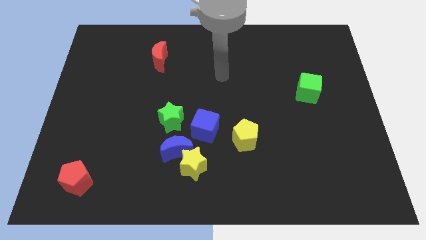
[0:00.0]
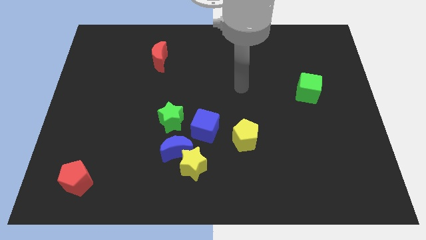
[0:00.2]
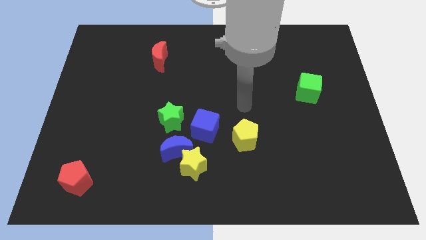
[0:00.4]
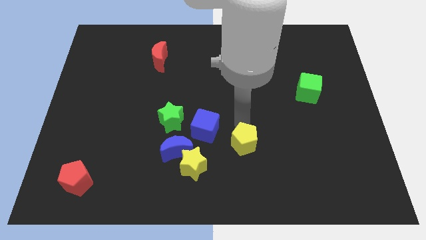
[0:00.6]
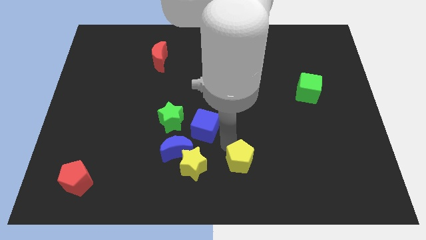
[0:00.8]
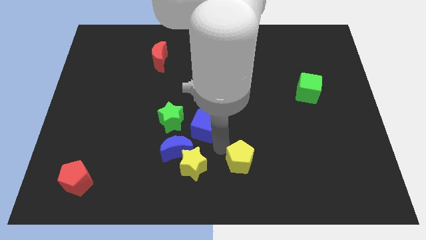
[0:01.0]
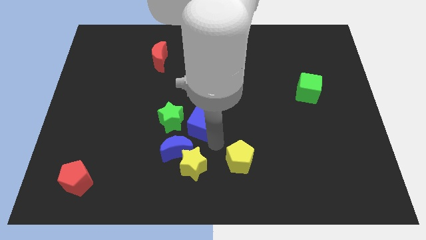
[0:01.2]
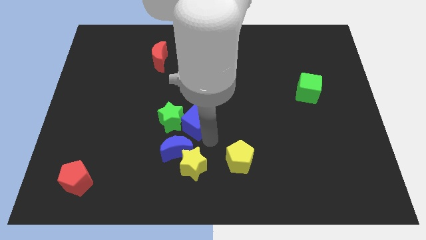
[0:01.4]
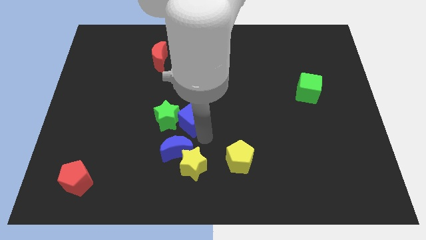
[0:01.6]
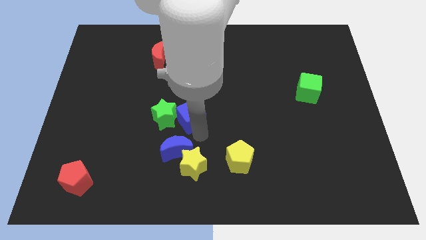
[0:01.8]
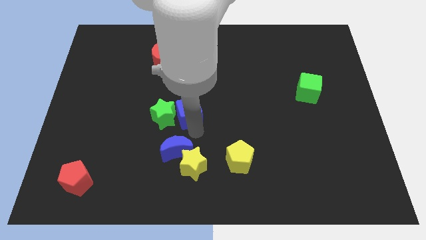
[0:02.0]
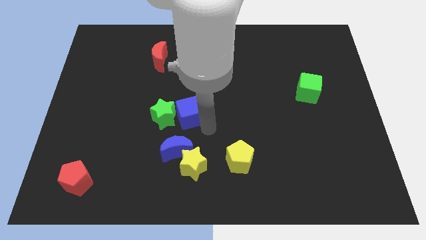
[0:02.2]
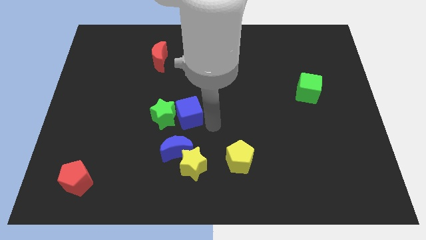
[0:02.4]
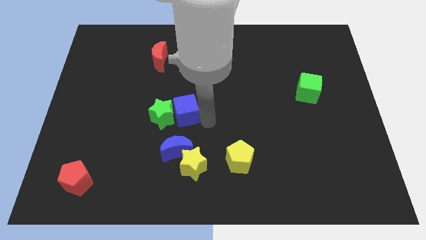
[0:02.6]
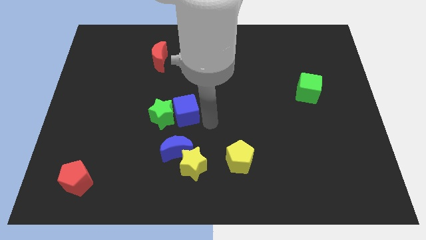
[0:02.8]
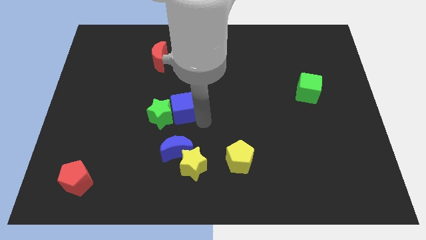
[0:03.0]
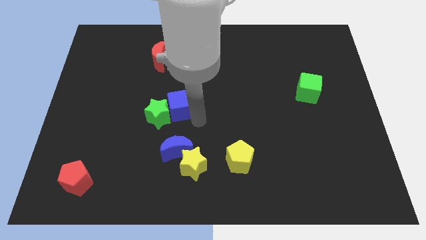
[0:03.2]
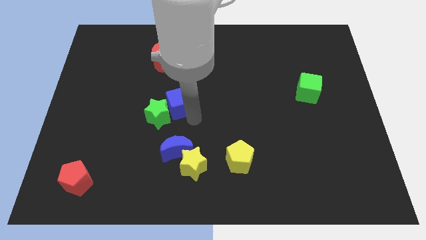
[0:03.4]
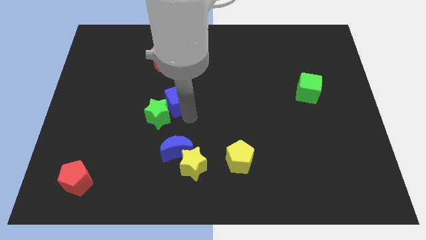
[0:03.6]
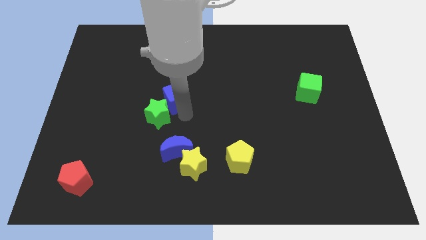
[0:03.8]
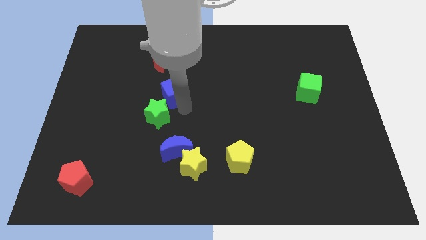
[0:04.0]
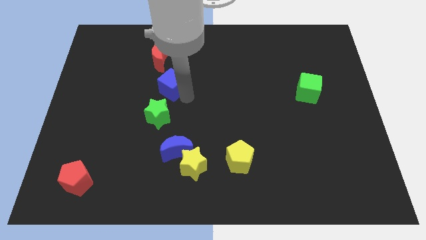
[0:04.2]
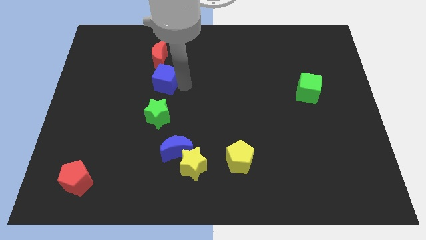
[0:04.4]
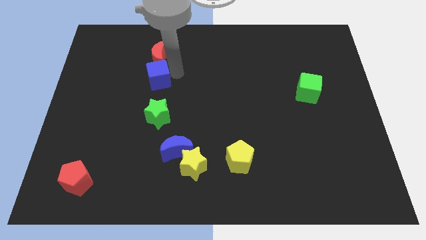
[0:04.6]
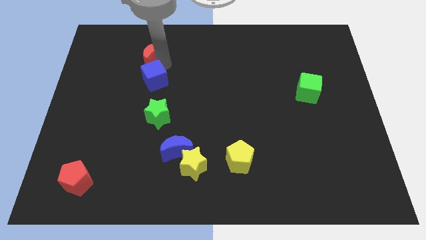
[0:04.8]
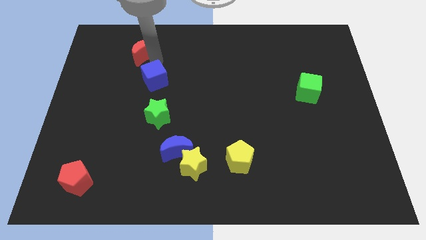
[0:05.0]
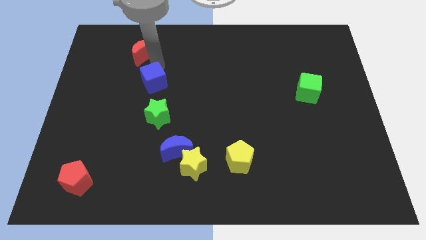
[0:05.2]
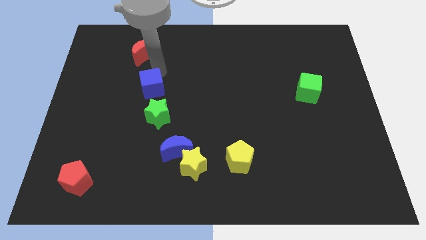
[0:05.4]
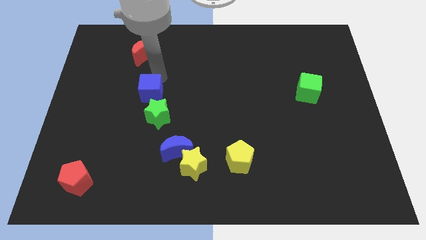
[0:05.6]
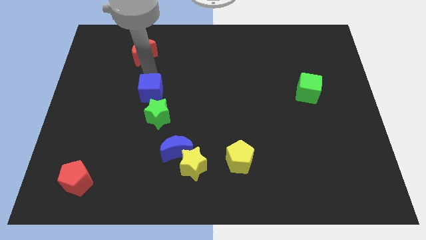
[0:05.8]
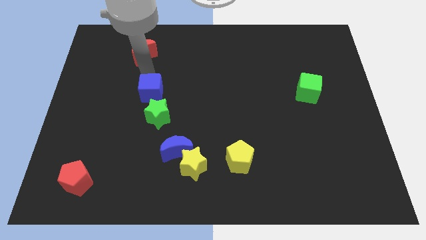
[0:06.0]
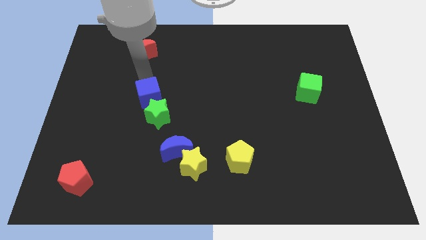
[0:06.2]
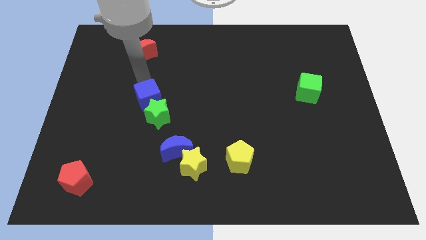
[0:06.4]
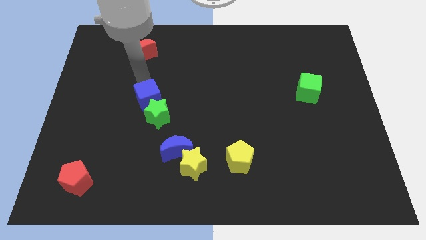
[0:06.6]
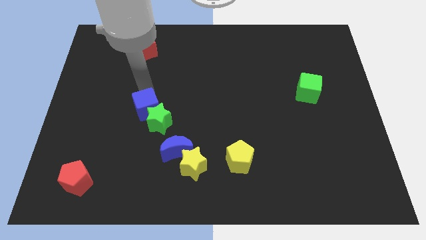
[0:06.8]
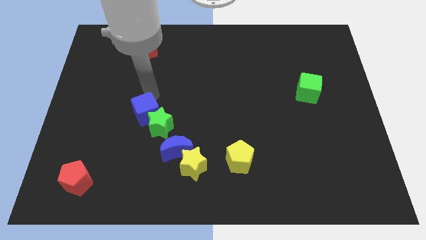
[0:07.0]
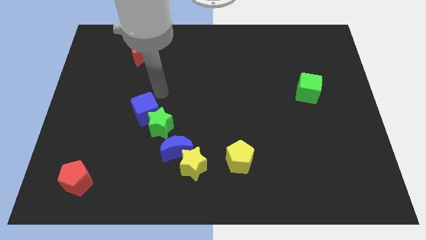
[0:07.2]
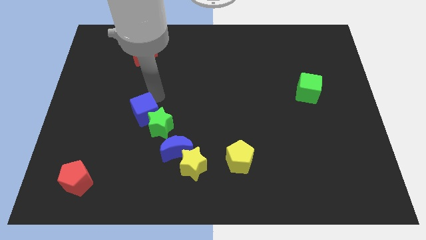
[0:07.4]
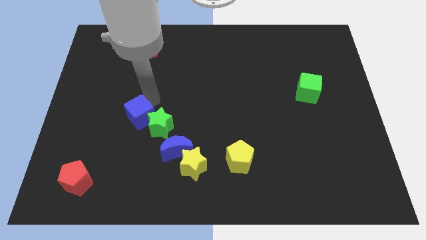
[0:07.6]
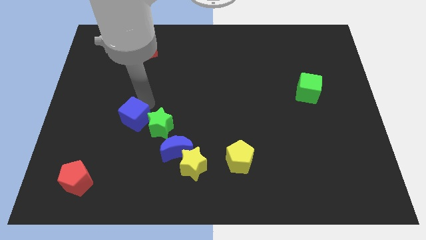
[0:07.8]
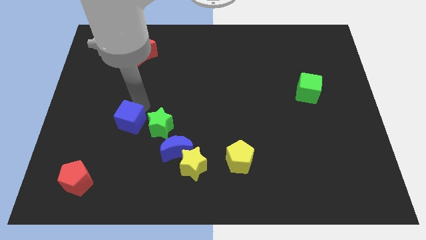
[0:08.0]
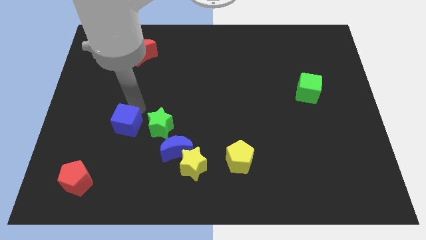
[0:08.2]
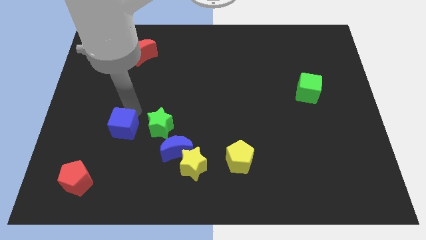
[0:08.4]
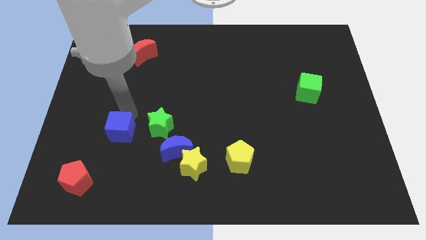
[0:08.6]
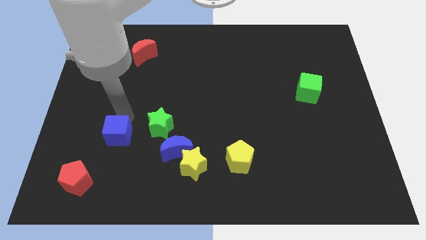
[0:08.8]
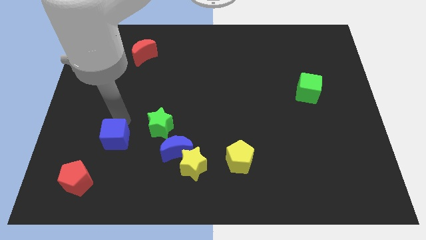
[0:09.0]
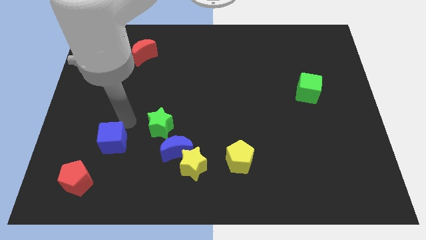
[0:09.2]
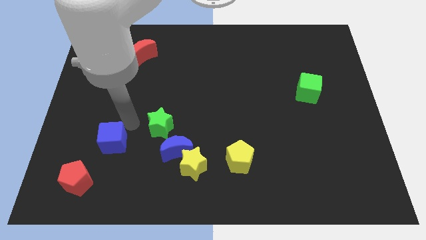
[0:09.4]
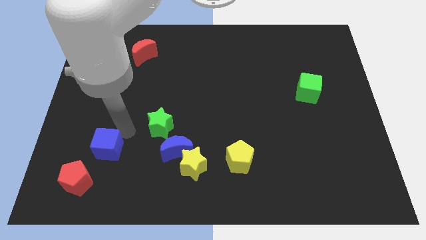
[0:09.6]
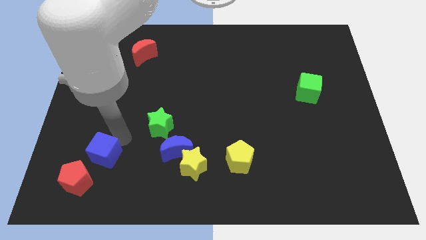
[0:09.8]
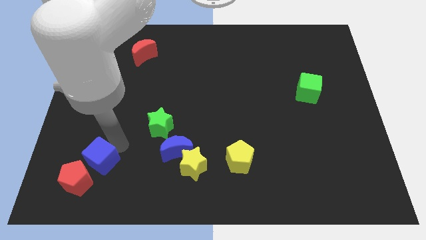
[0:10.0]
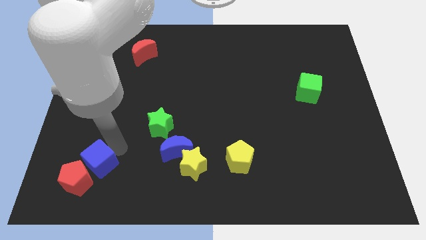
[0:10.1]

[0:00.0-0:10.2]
move the blue cube close to the red pentagon
